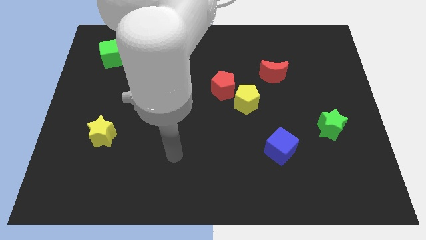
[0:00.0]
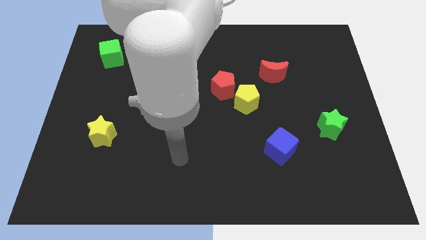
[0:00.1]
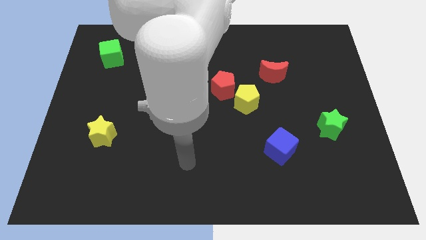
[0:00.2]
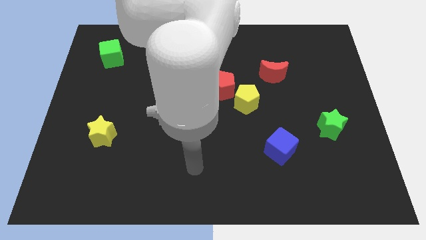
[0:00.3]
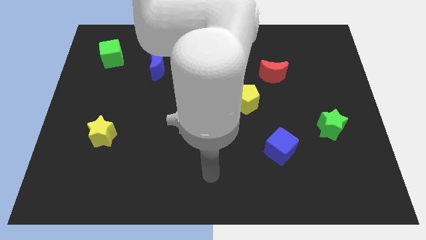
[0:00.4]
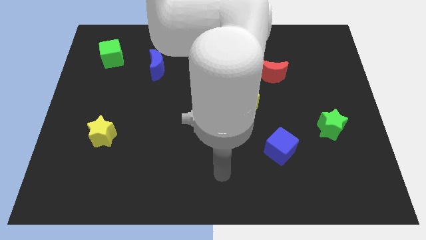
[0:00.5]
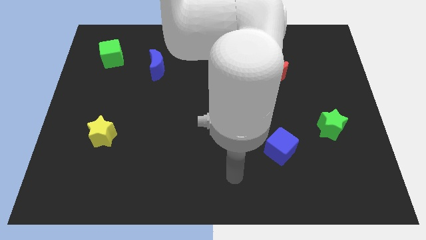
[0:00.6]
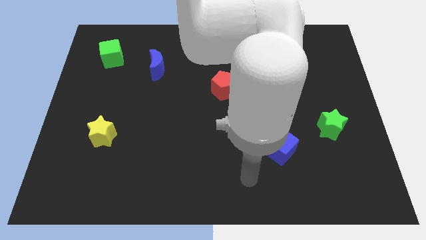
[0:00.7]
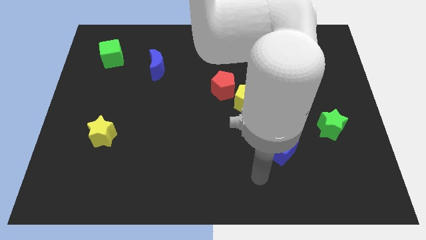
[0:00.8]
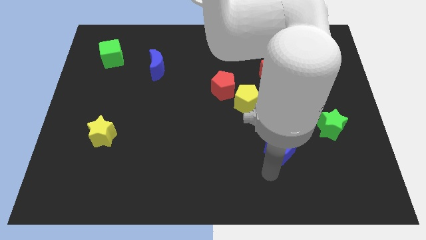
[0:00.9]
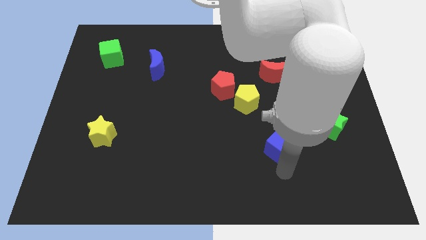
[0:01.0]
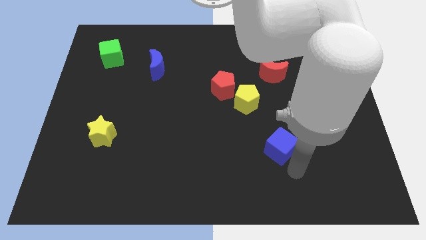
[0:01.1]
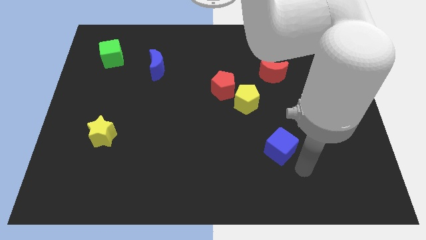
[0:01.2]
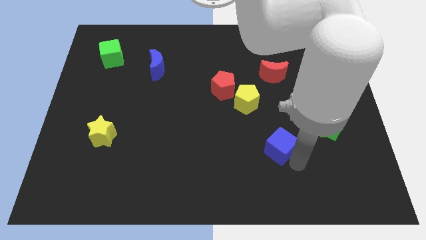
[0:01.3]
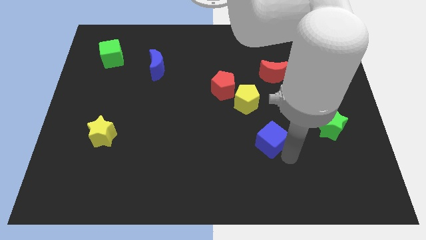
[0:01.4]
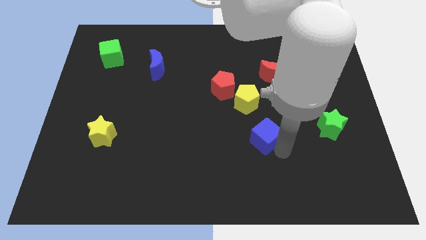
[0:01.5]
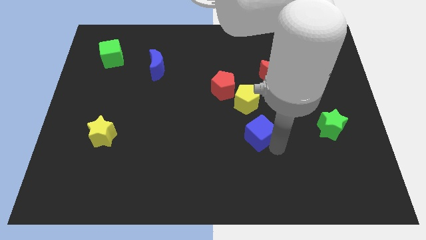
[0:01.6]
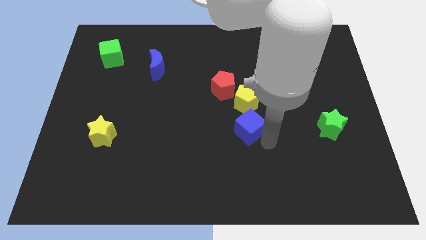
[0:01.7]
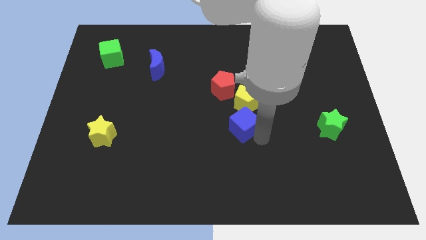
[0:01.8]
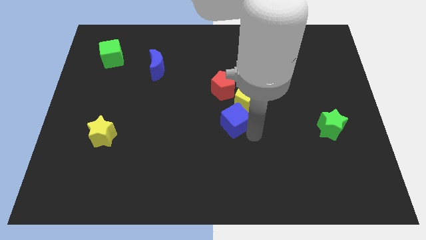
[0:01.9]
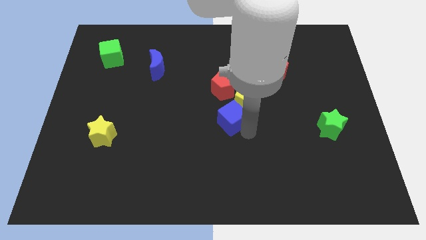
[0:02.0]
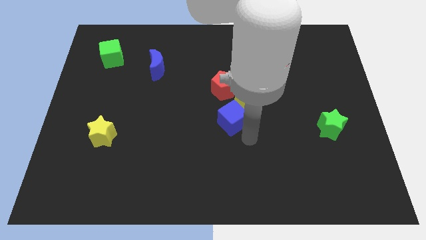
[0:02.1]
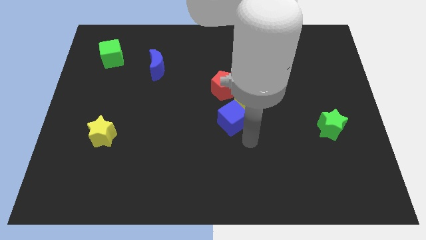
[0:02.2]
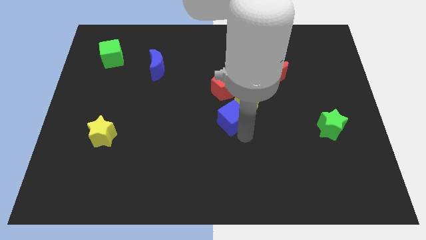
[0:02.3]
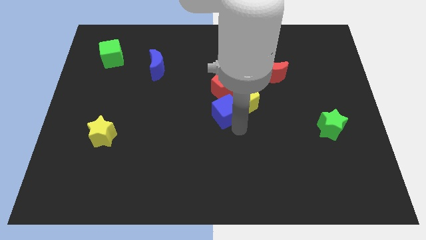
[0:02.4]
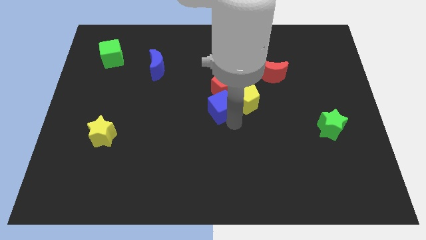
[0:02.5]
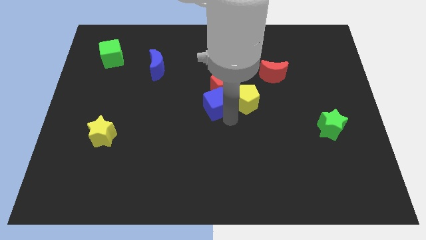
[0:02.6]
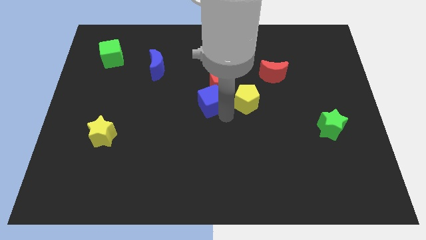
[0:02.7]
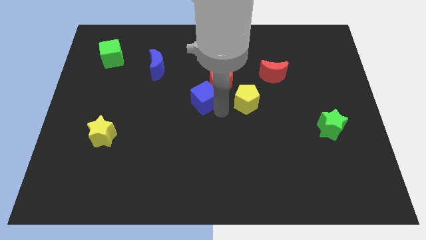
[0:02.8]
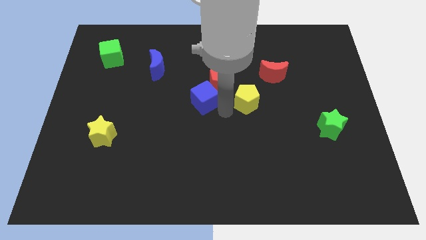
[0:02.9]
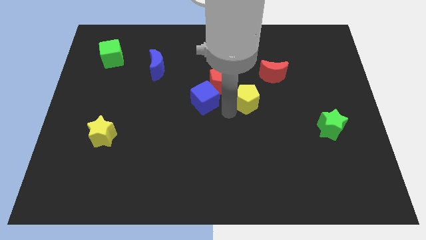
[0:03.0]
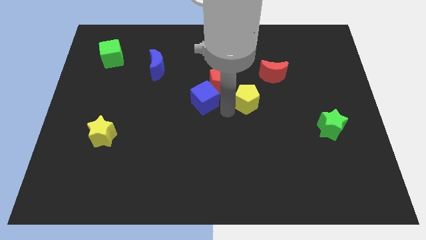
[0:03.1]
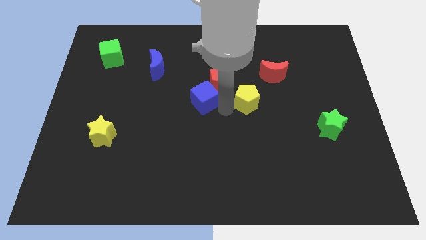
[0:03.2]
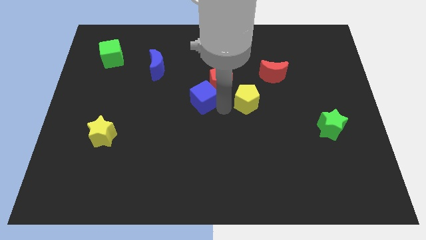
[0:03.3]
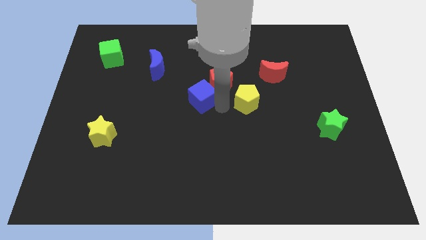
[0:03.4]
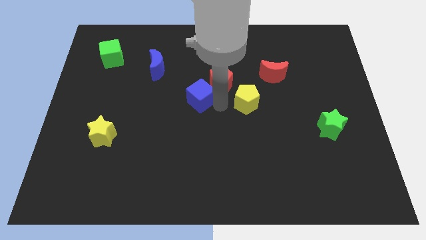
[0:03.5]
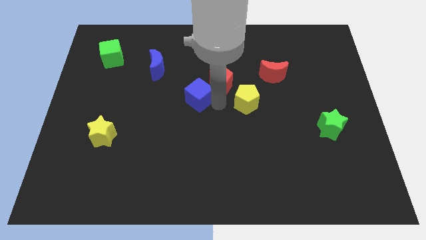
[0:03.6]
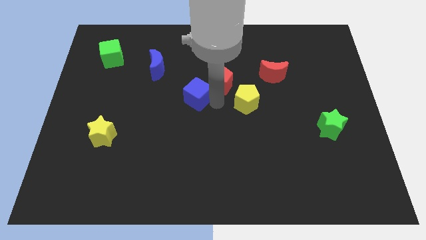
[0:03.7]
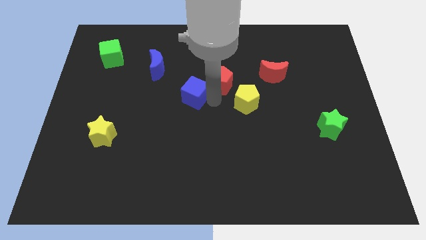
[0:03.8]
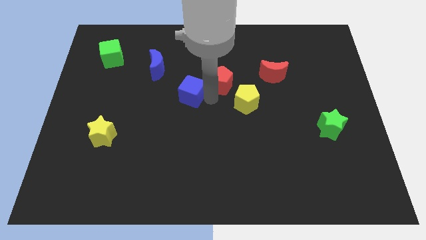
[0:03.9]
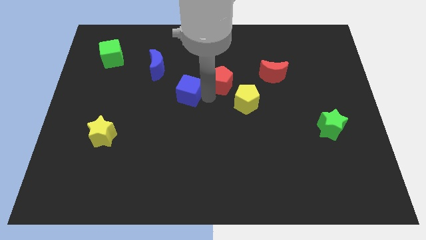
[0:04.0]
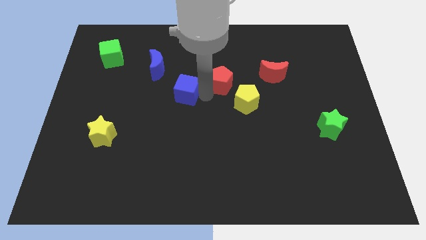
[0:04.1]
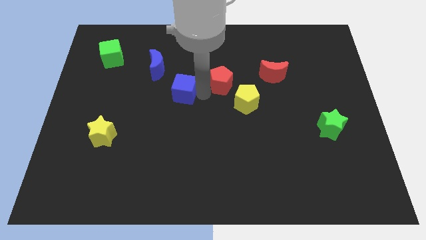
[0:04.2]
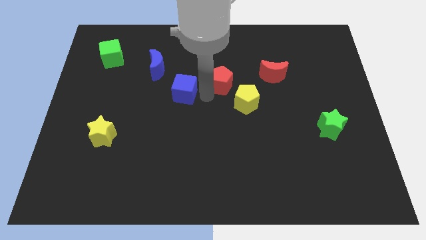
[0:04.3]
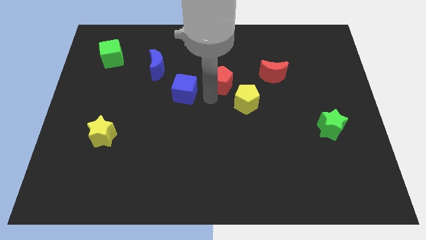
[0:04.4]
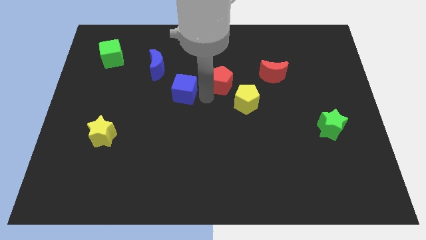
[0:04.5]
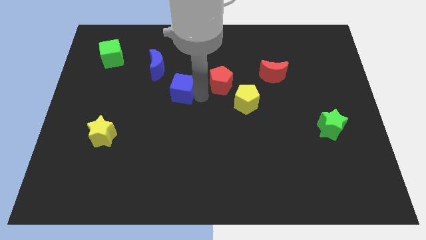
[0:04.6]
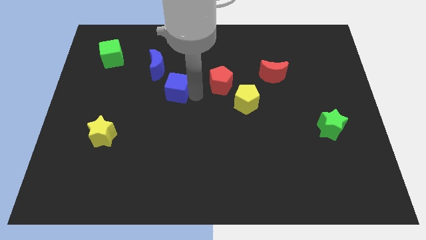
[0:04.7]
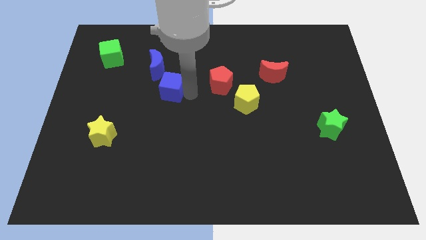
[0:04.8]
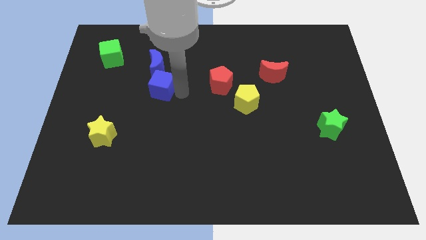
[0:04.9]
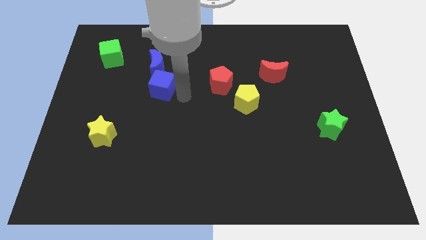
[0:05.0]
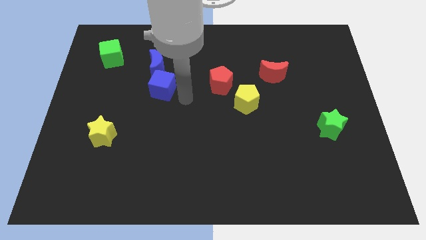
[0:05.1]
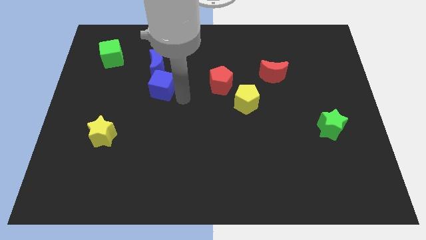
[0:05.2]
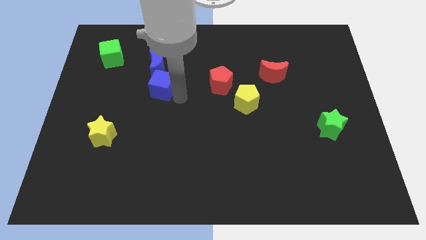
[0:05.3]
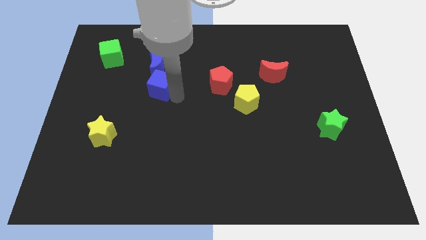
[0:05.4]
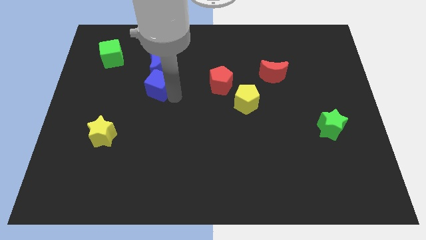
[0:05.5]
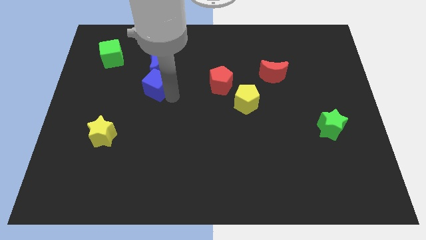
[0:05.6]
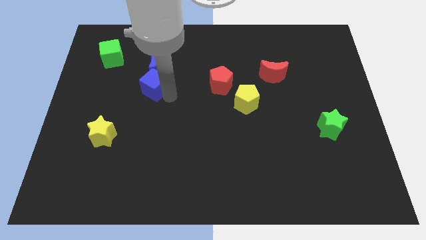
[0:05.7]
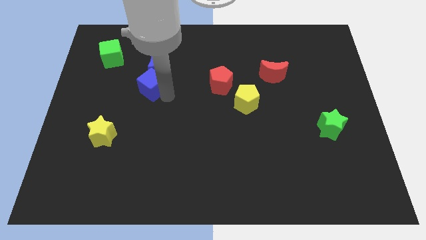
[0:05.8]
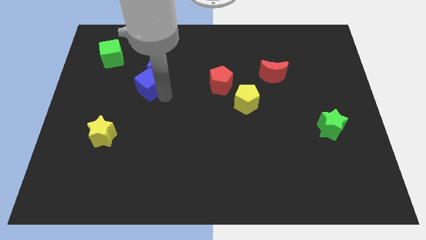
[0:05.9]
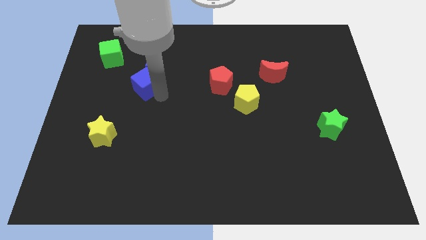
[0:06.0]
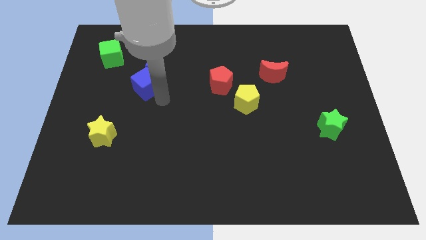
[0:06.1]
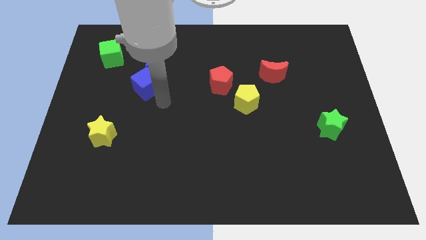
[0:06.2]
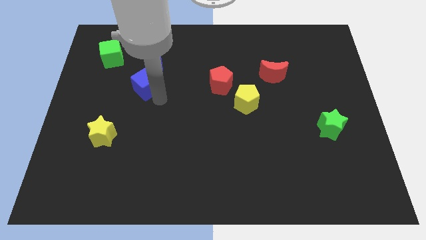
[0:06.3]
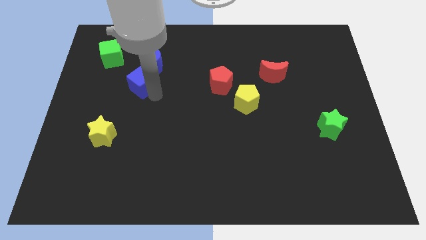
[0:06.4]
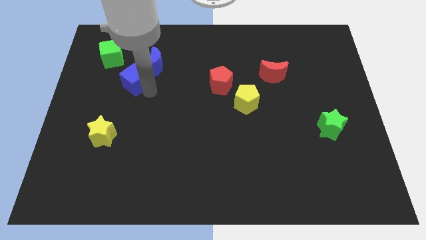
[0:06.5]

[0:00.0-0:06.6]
put the blue cube diagonally down and to the right of the green cube

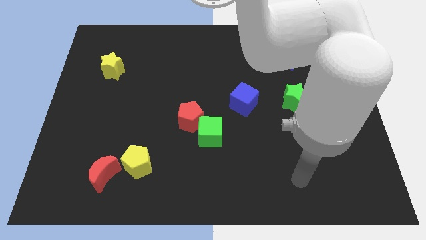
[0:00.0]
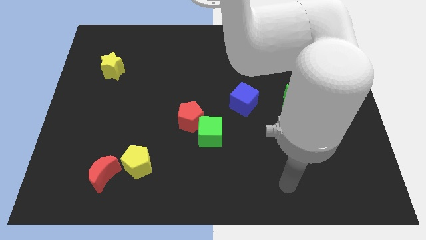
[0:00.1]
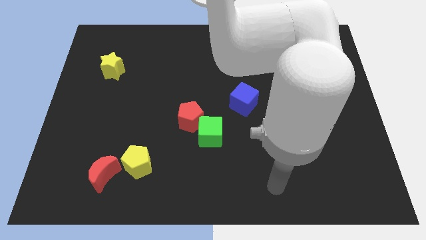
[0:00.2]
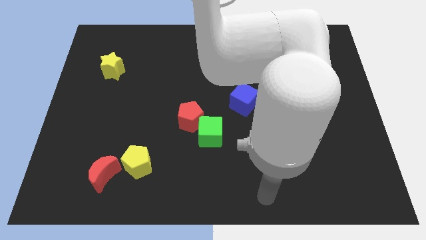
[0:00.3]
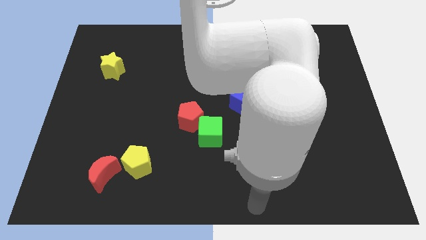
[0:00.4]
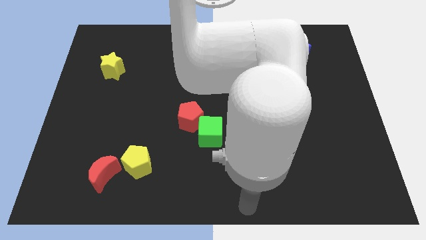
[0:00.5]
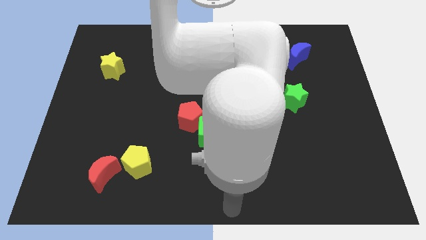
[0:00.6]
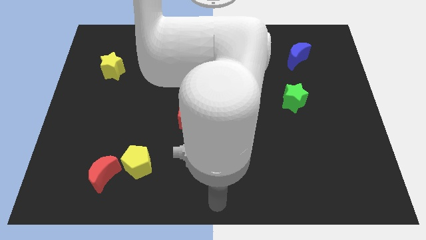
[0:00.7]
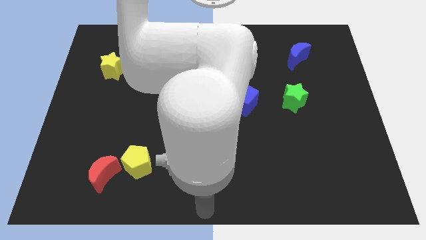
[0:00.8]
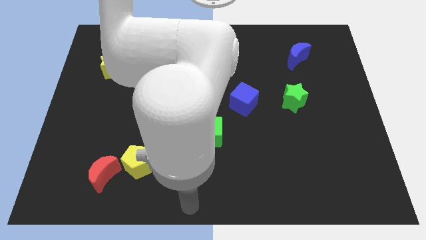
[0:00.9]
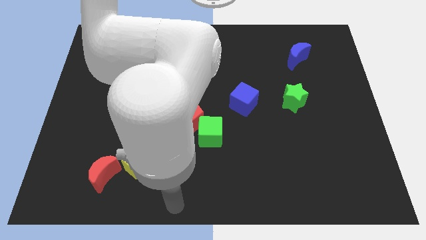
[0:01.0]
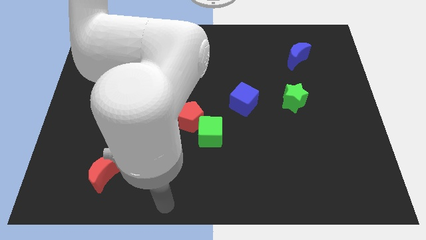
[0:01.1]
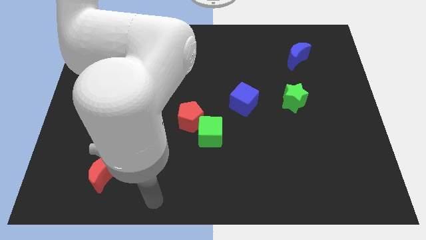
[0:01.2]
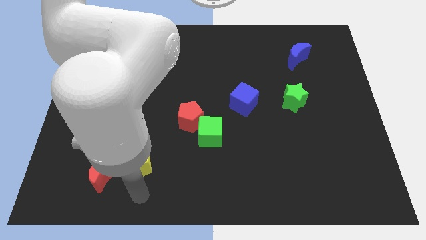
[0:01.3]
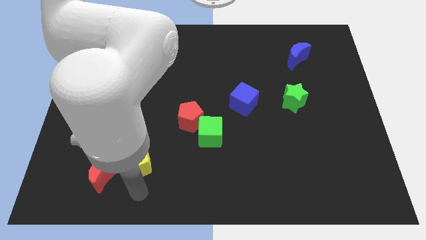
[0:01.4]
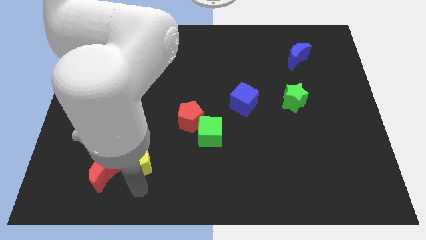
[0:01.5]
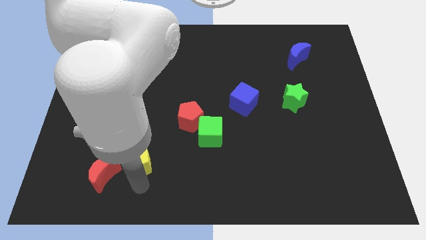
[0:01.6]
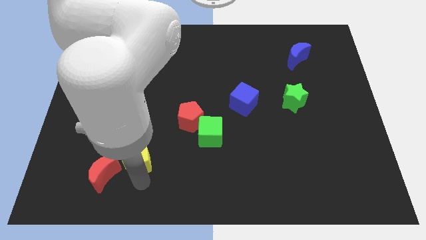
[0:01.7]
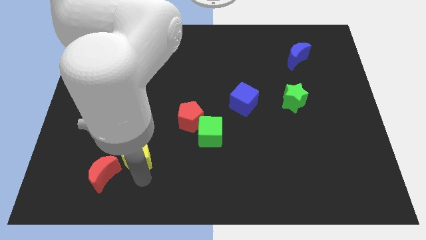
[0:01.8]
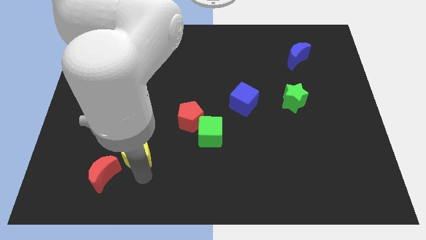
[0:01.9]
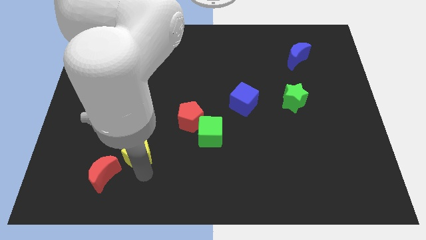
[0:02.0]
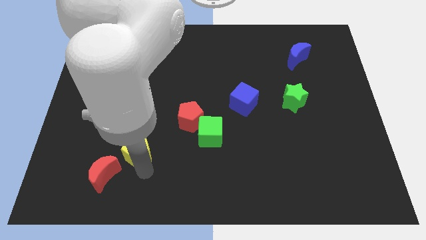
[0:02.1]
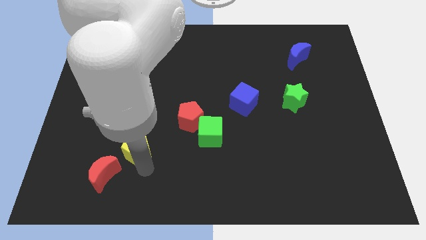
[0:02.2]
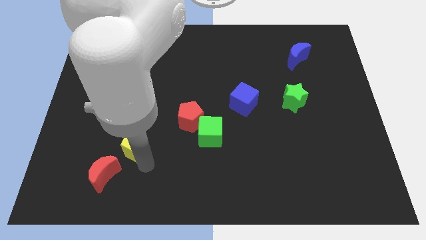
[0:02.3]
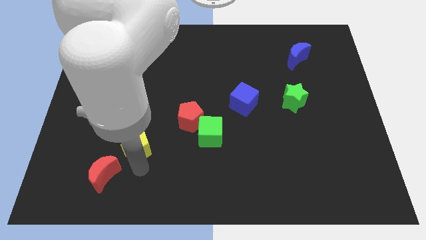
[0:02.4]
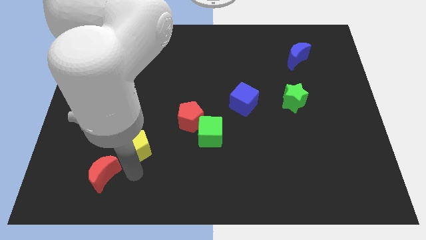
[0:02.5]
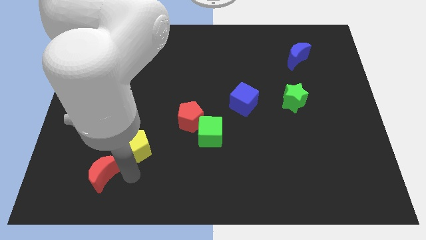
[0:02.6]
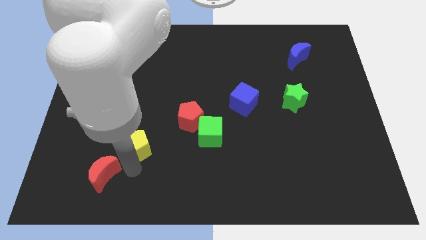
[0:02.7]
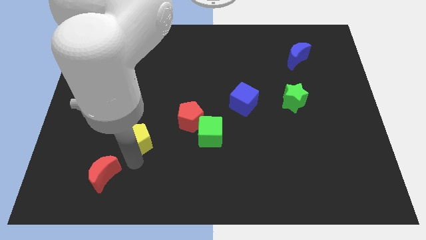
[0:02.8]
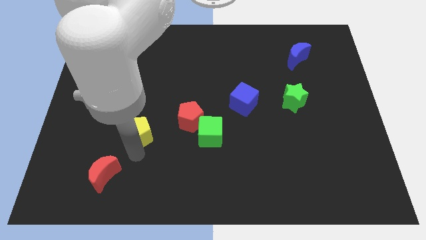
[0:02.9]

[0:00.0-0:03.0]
put the yellow pentagon just left of the red pentagon
